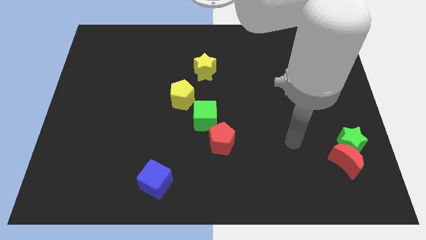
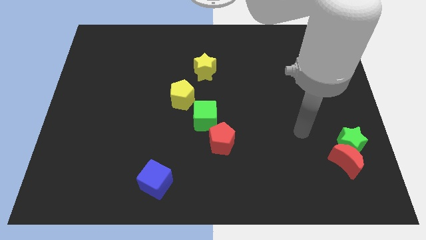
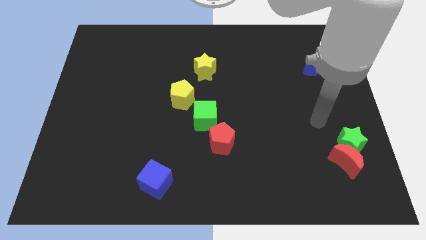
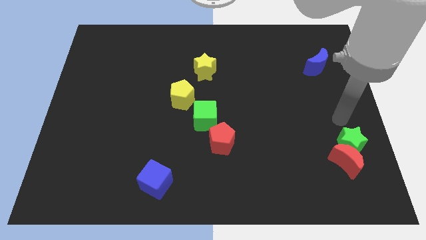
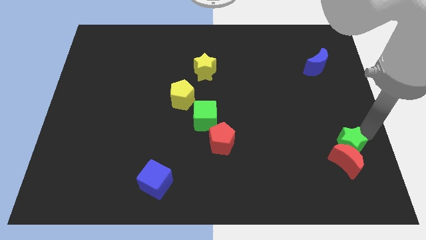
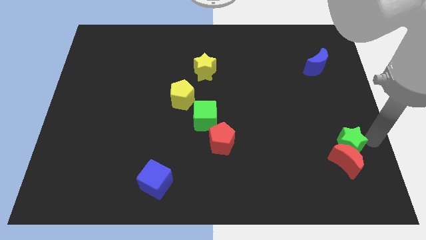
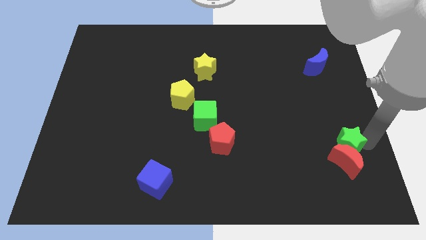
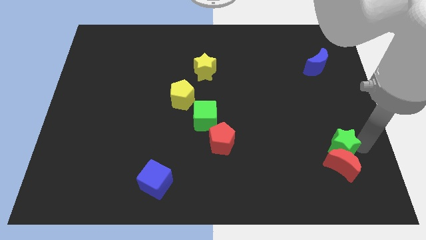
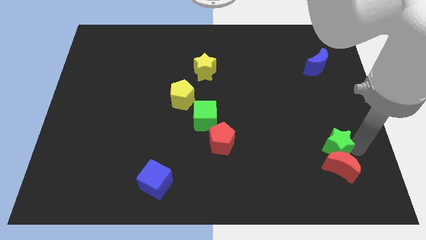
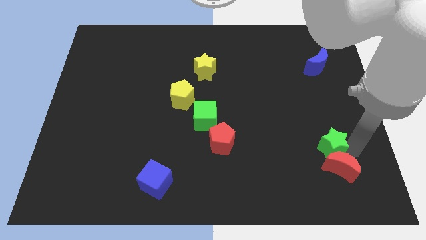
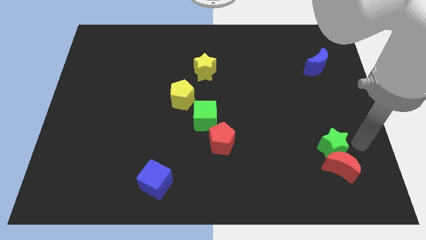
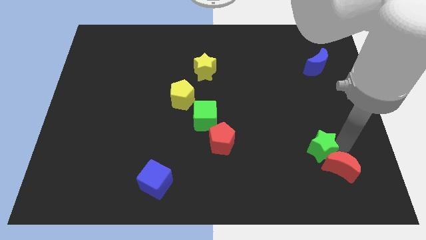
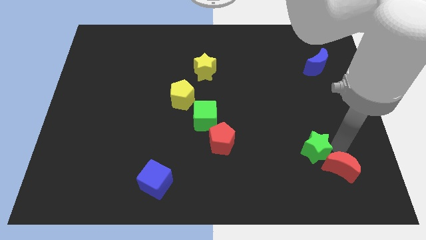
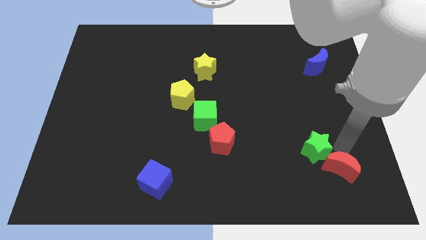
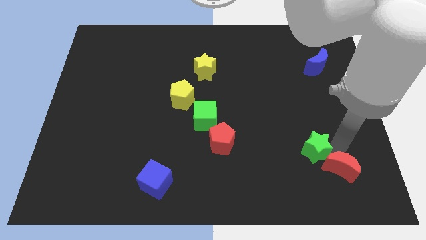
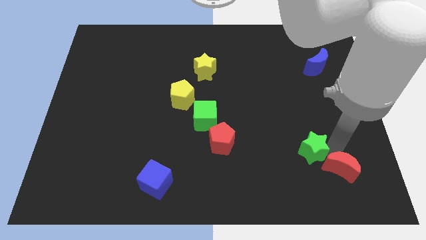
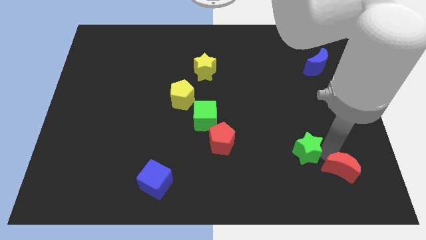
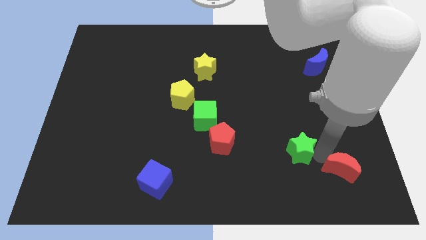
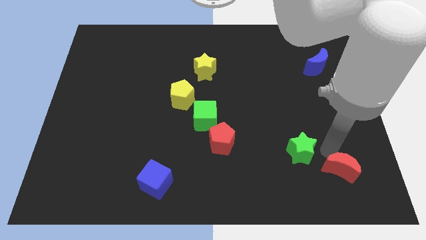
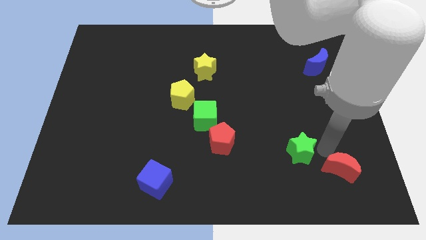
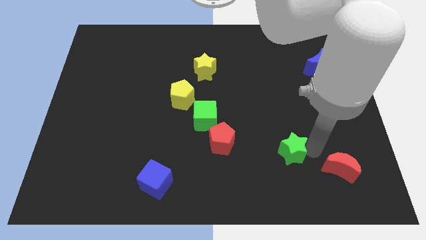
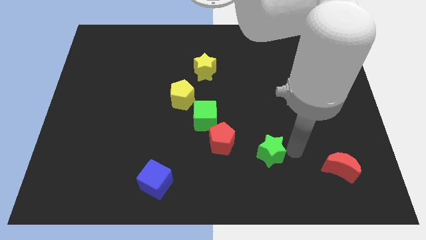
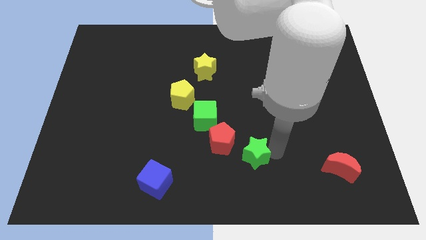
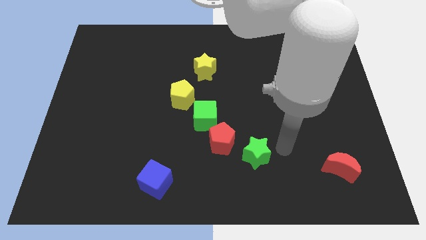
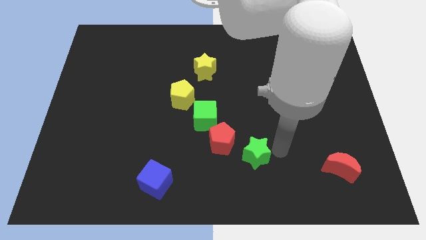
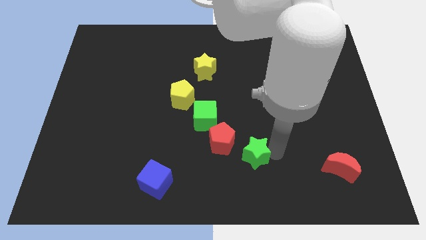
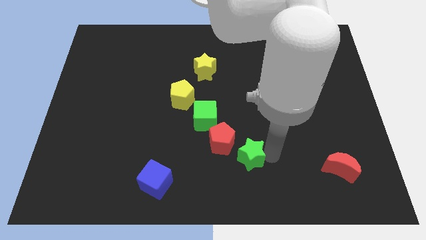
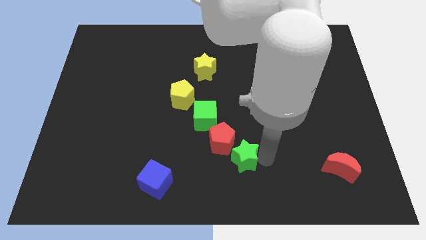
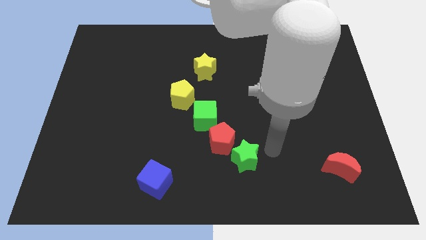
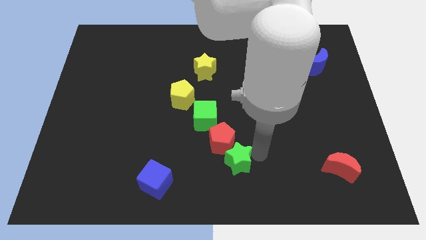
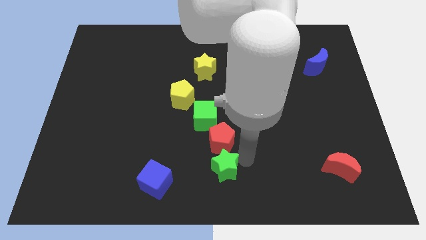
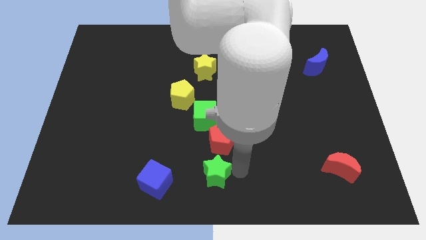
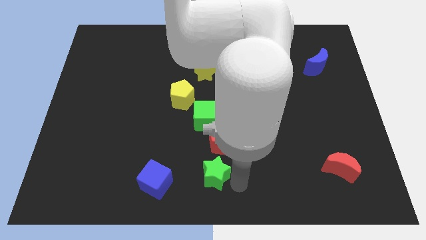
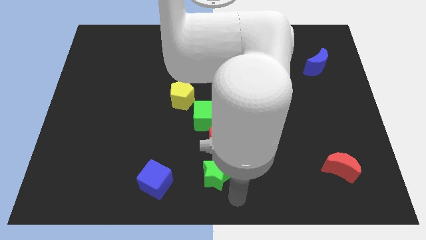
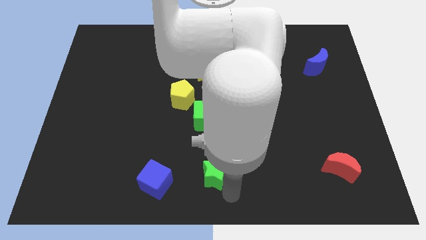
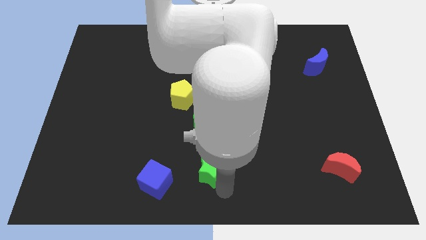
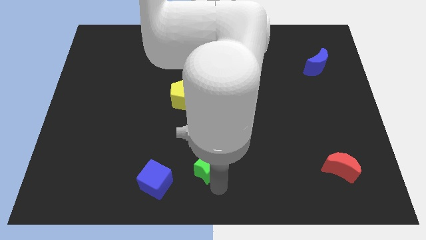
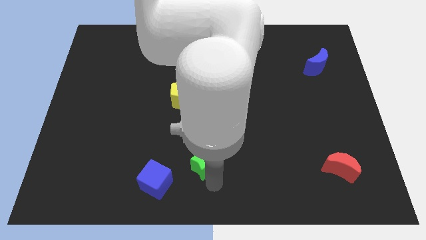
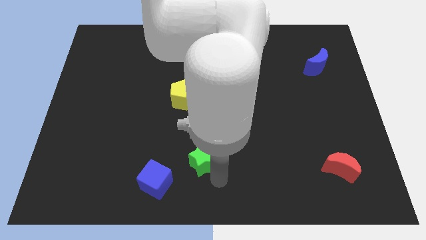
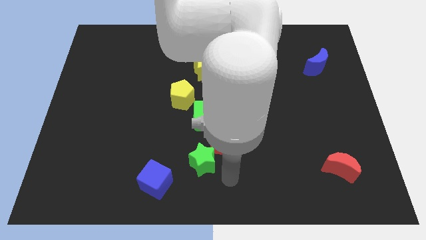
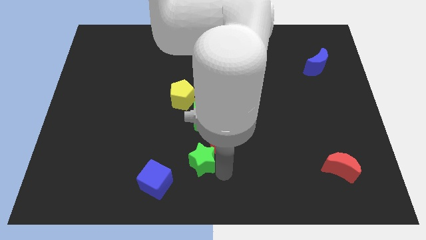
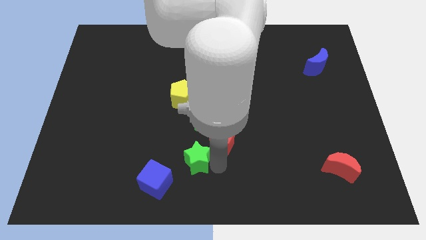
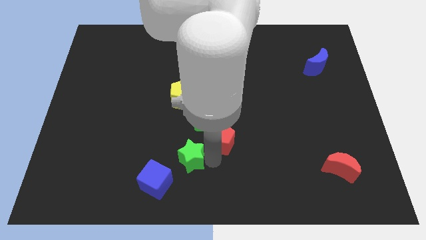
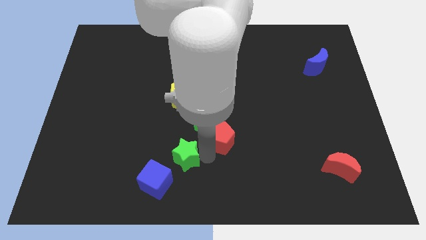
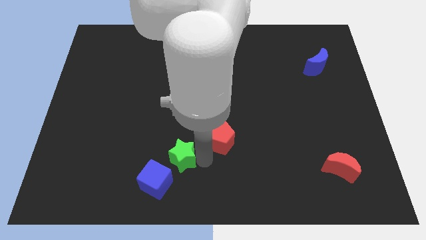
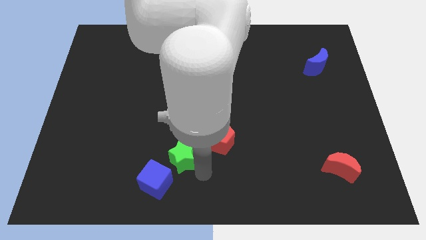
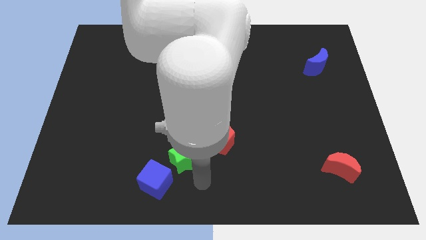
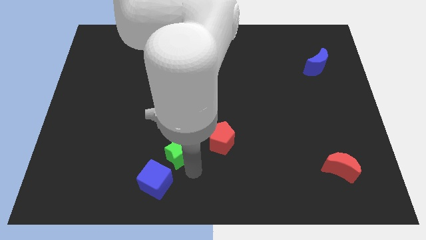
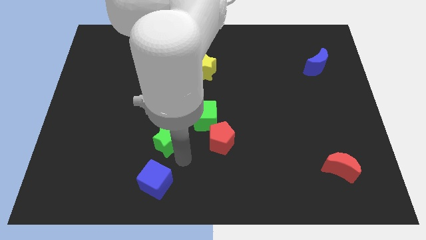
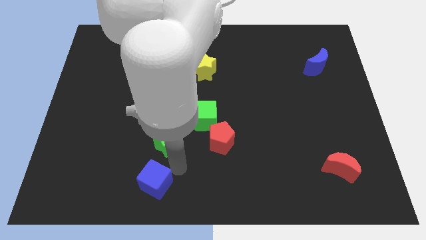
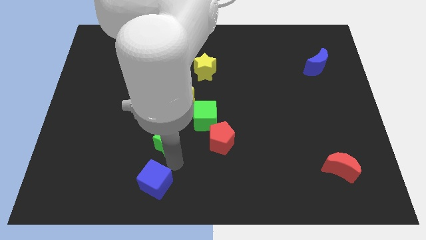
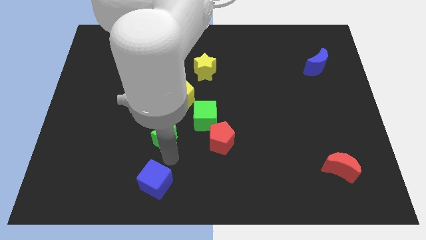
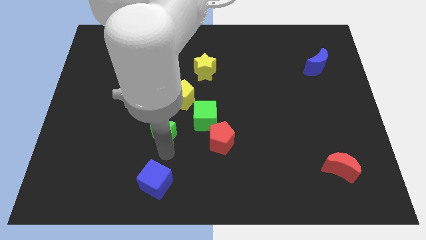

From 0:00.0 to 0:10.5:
push the green star to the left of the green cube

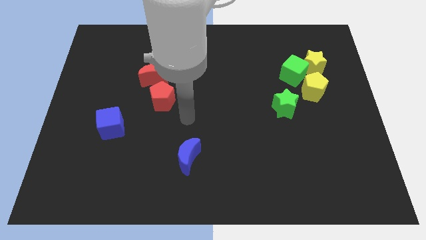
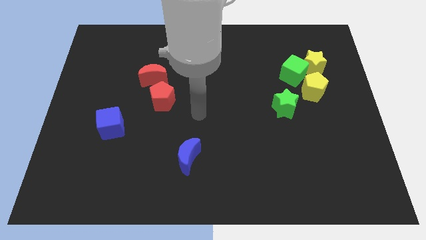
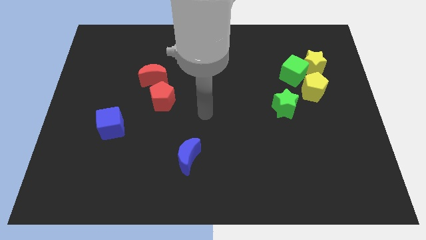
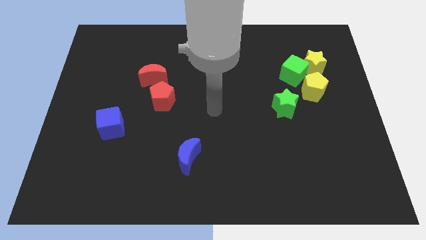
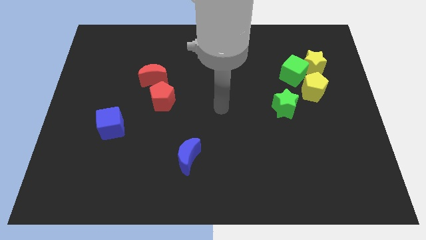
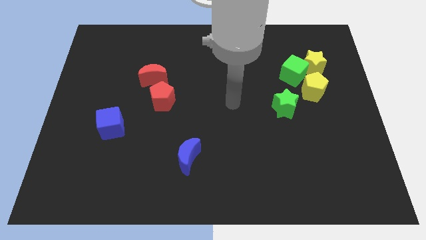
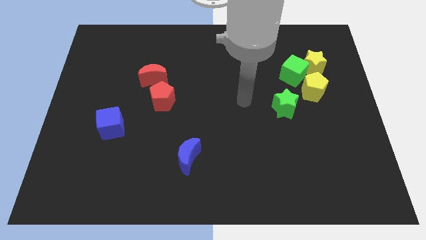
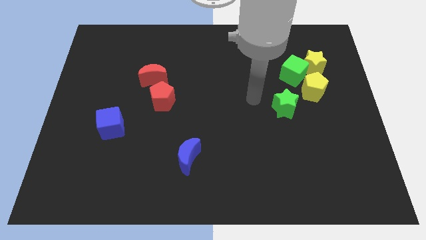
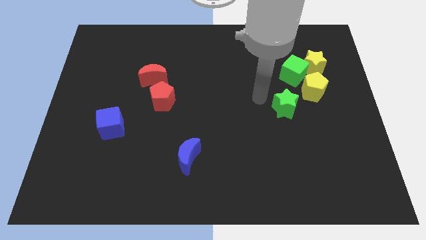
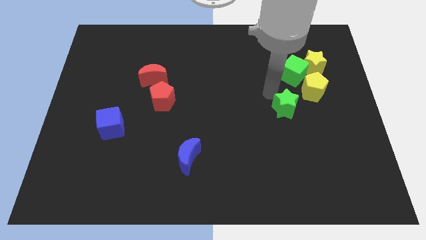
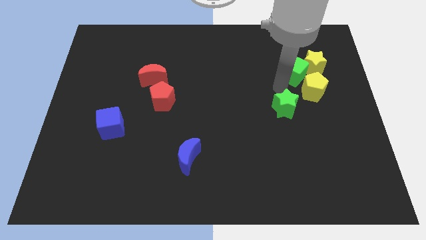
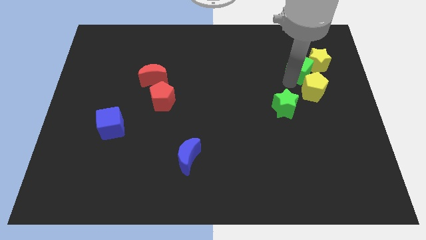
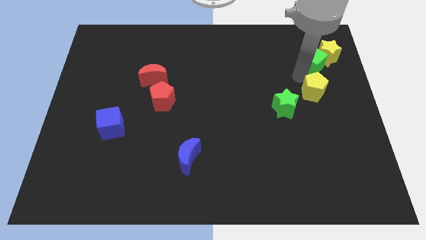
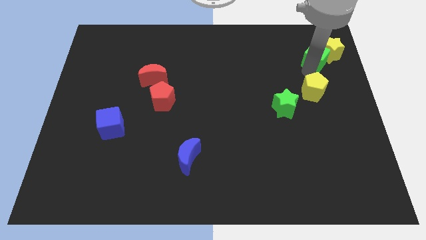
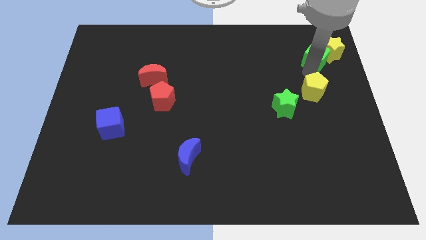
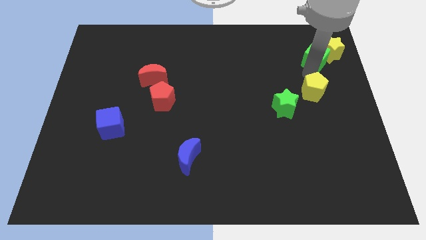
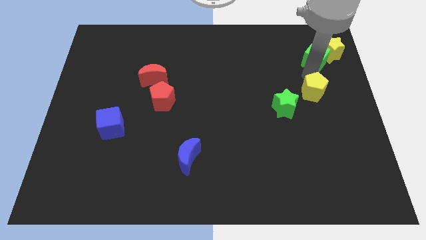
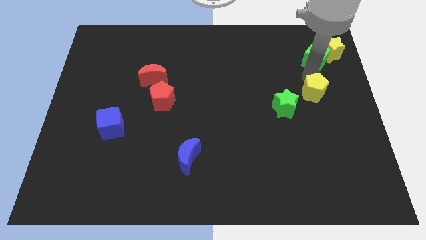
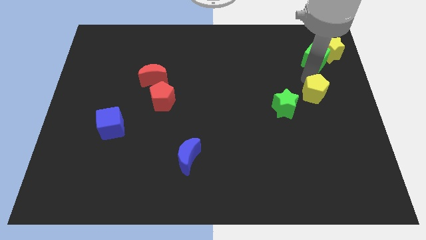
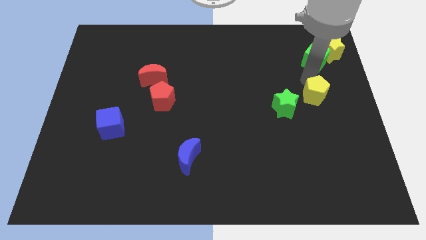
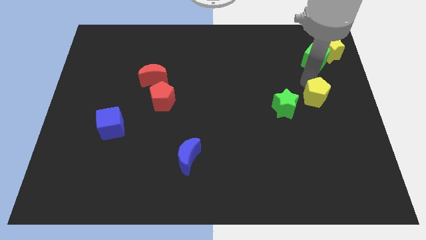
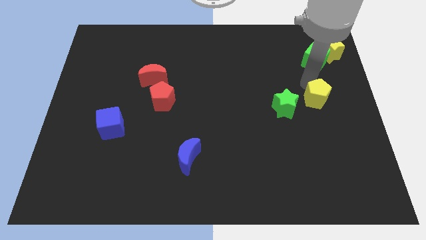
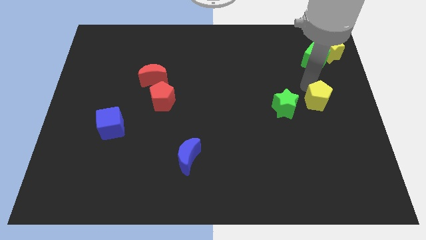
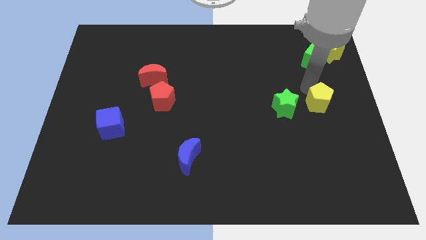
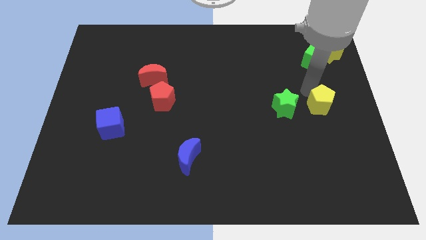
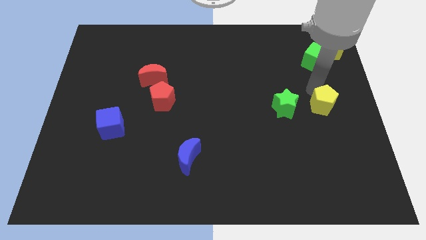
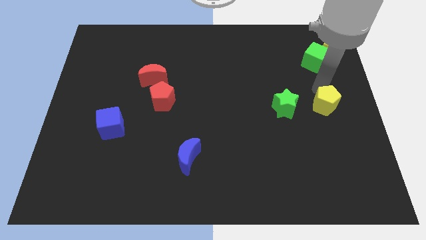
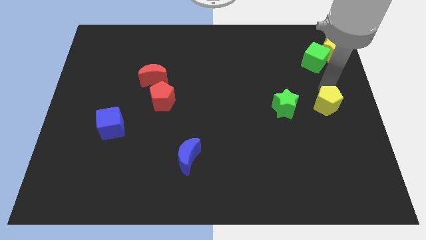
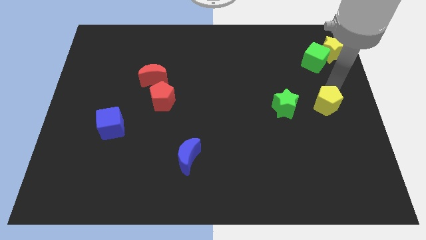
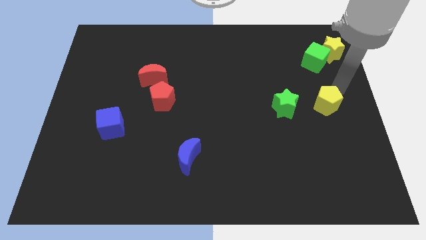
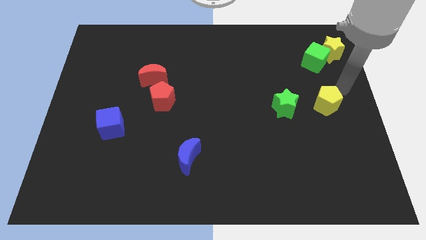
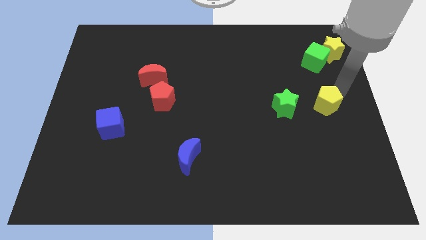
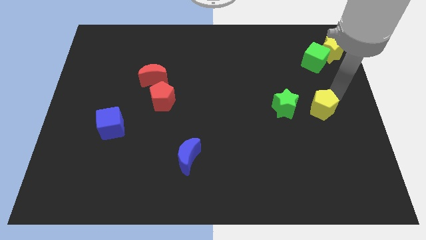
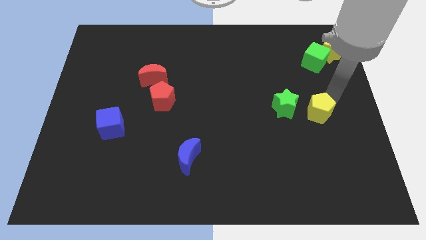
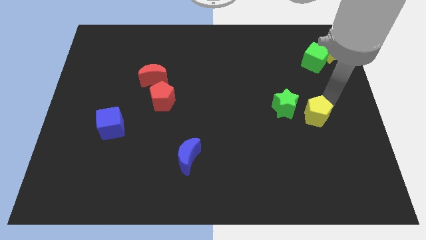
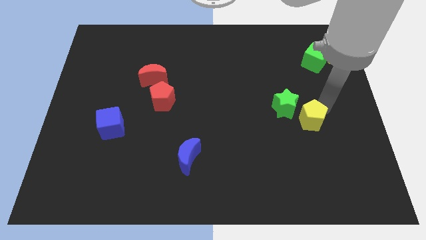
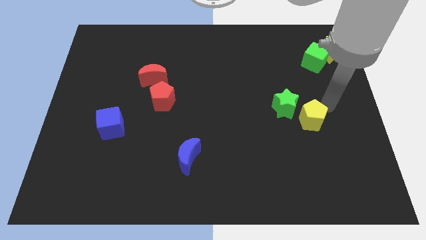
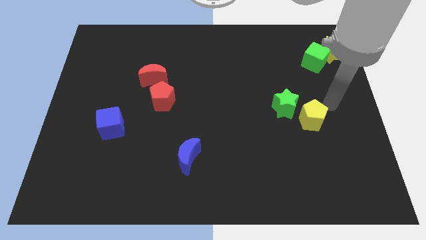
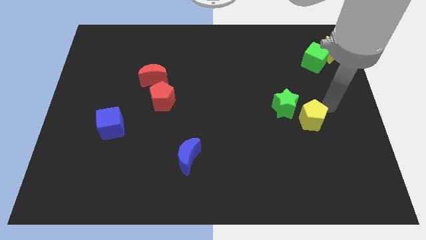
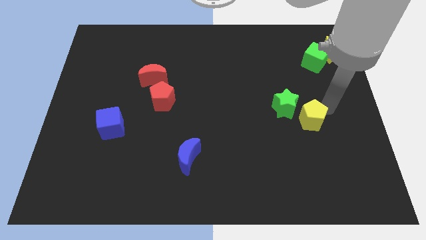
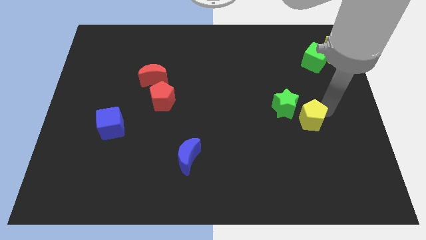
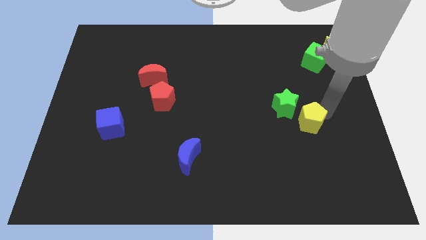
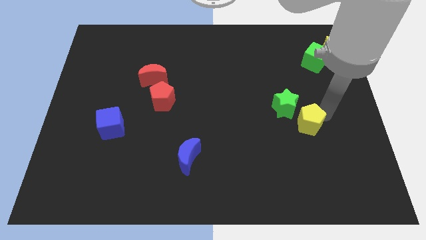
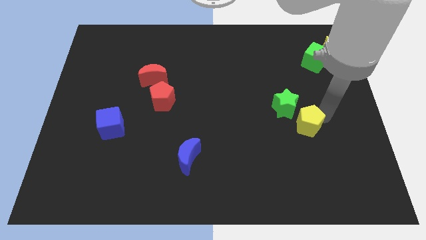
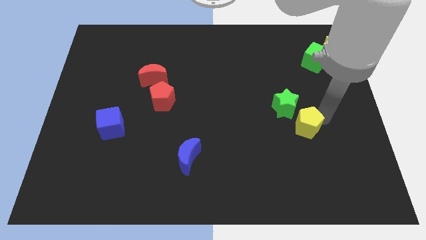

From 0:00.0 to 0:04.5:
move the yellow pentagon to the bottom side of the green star
